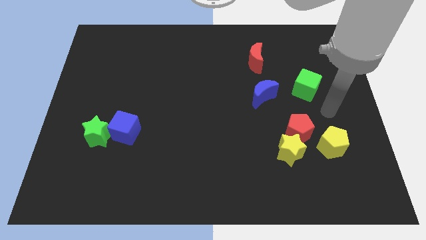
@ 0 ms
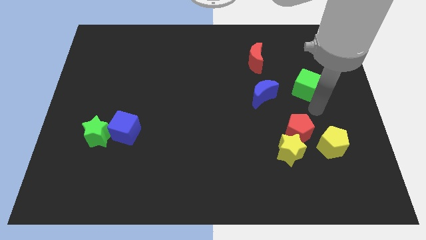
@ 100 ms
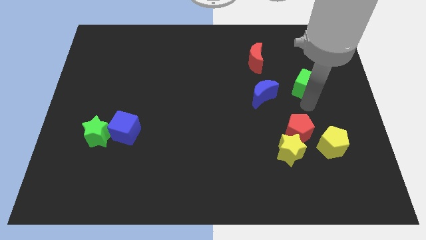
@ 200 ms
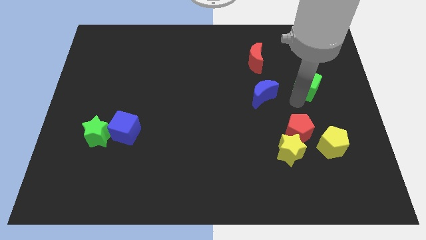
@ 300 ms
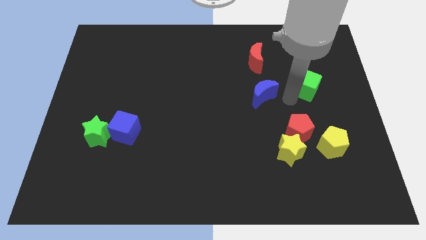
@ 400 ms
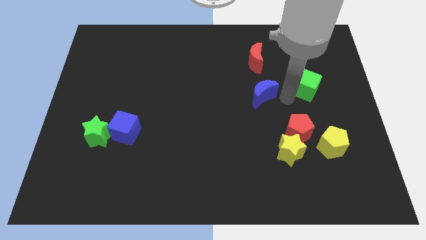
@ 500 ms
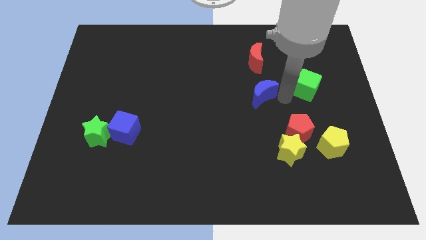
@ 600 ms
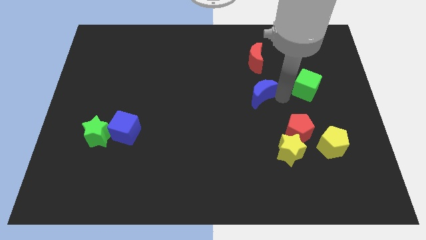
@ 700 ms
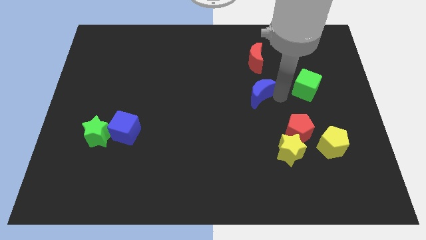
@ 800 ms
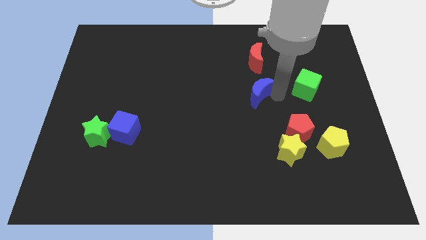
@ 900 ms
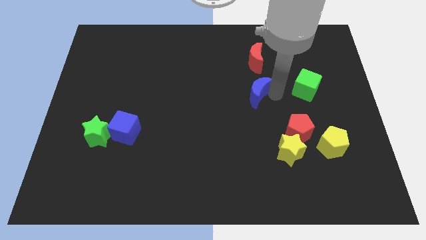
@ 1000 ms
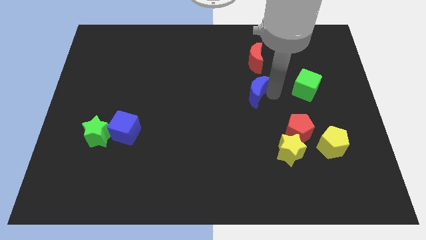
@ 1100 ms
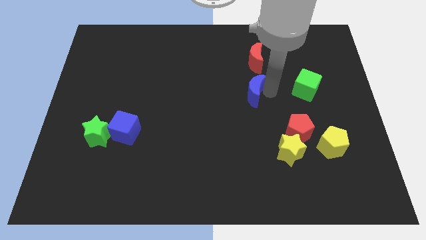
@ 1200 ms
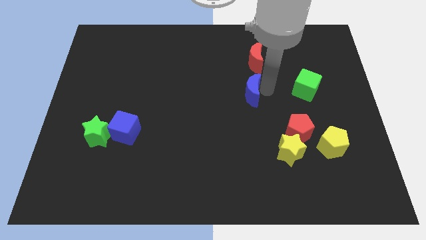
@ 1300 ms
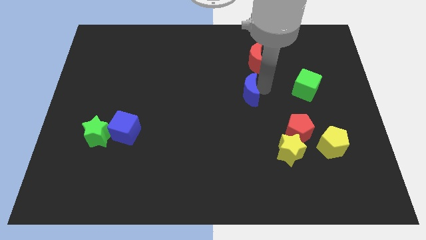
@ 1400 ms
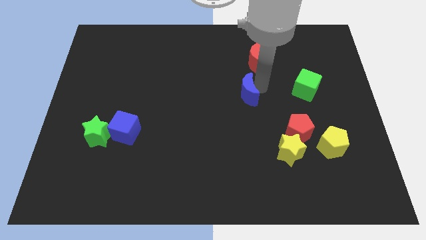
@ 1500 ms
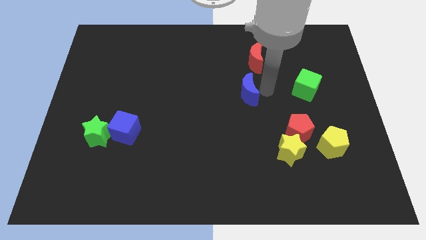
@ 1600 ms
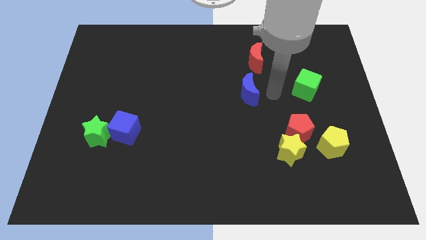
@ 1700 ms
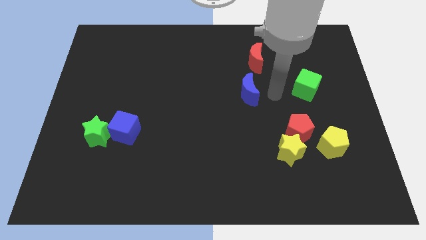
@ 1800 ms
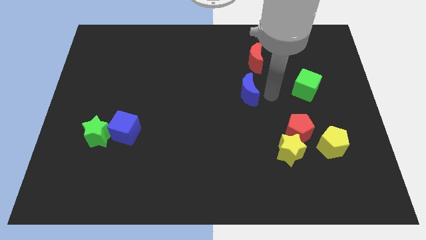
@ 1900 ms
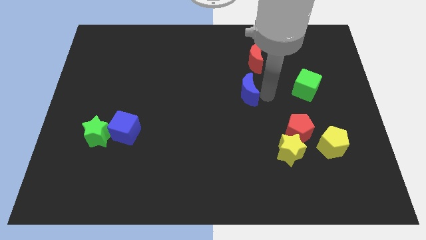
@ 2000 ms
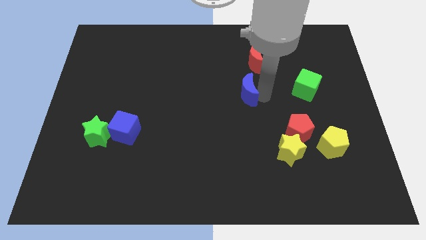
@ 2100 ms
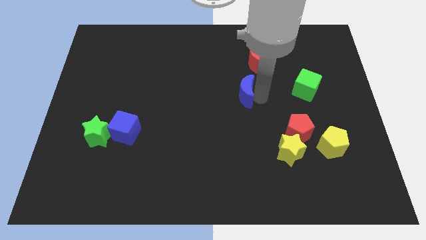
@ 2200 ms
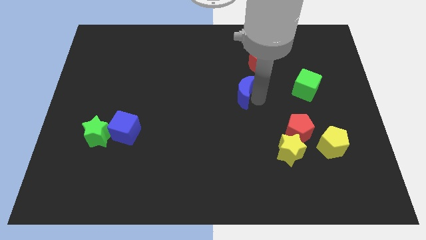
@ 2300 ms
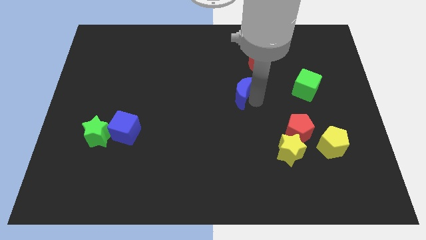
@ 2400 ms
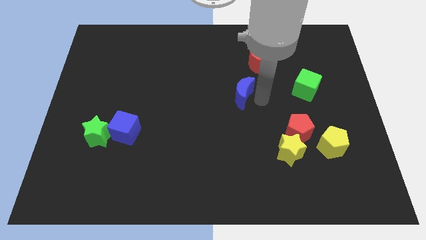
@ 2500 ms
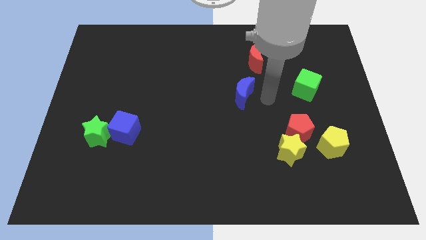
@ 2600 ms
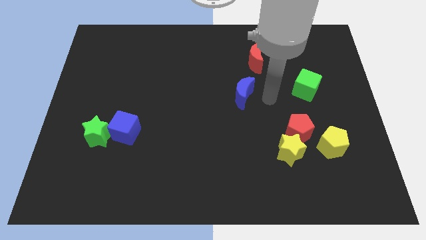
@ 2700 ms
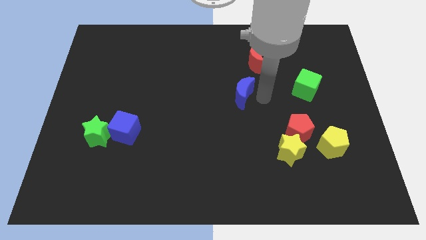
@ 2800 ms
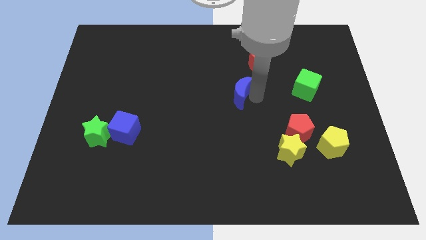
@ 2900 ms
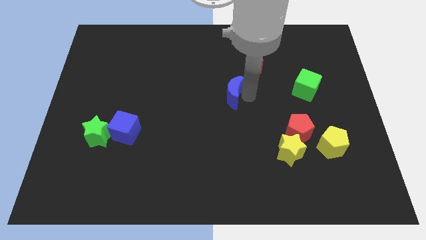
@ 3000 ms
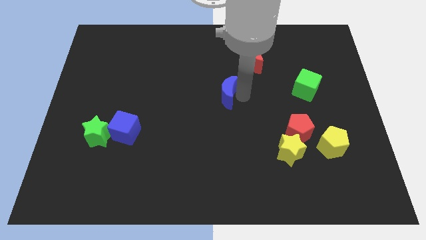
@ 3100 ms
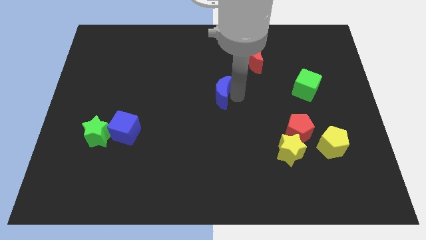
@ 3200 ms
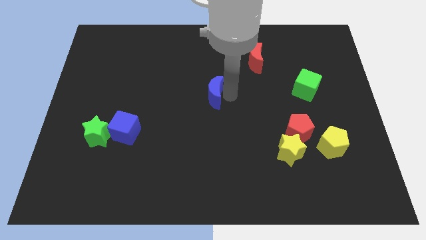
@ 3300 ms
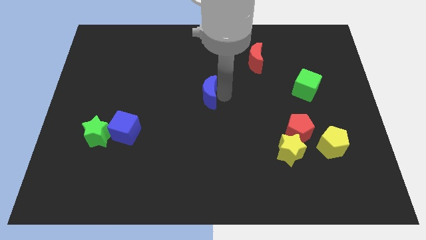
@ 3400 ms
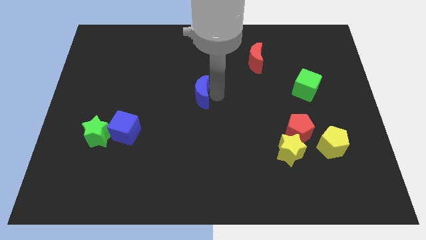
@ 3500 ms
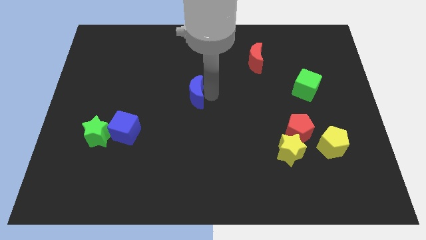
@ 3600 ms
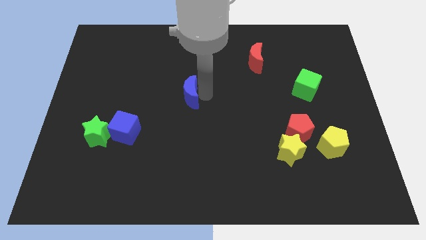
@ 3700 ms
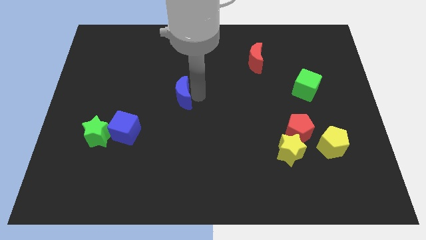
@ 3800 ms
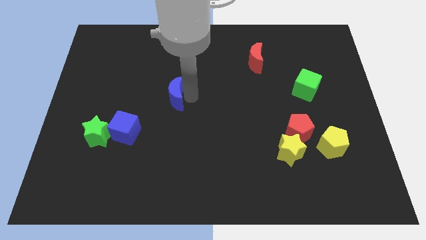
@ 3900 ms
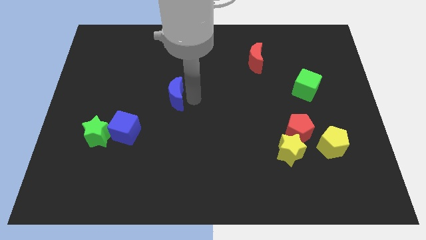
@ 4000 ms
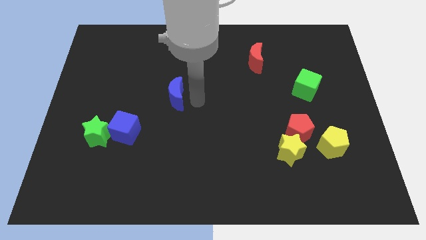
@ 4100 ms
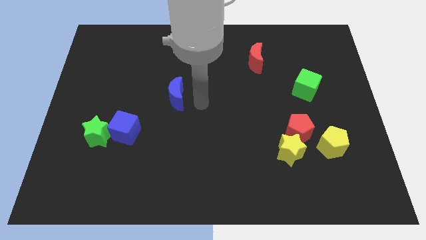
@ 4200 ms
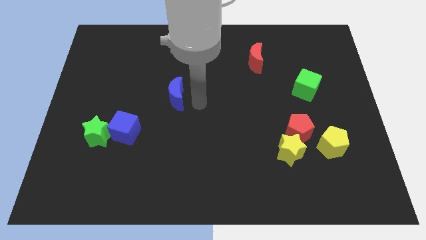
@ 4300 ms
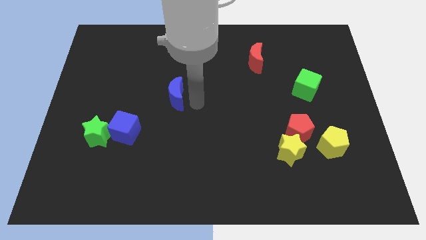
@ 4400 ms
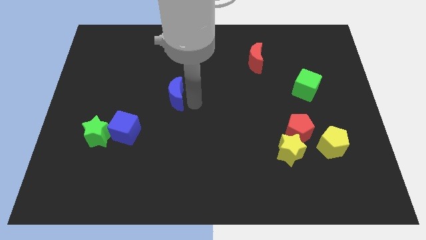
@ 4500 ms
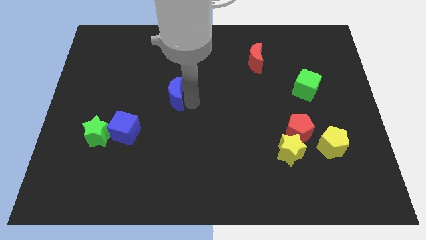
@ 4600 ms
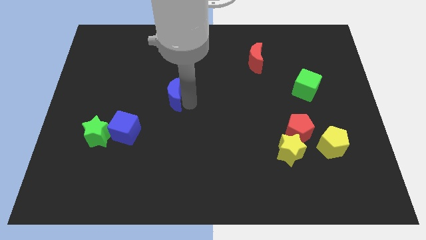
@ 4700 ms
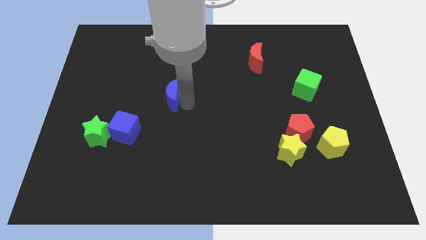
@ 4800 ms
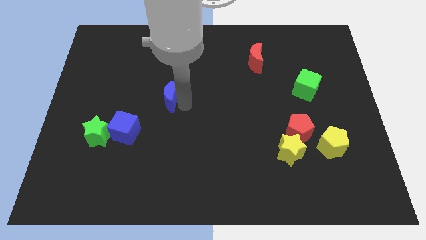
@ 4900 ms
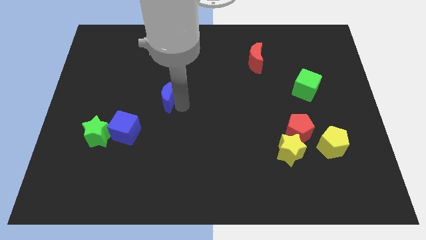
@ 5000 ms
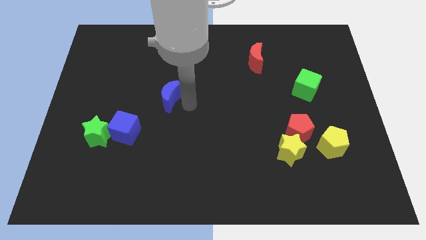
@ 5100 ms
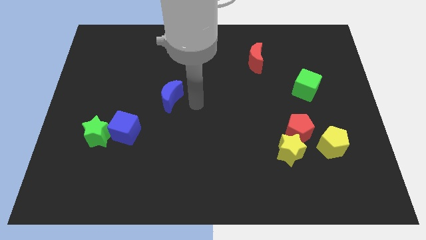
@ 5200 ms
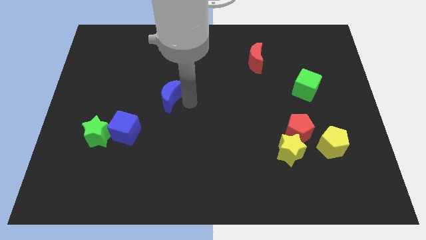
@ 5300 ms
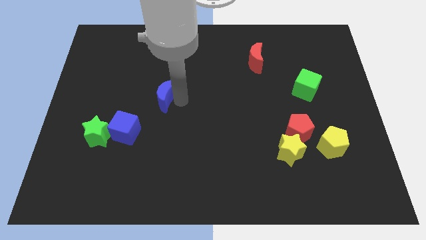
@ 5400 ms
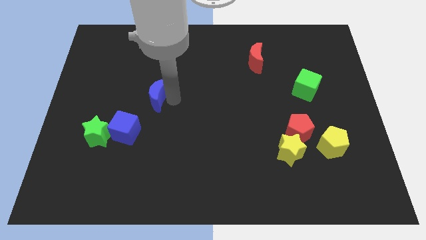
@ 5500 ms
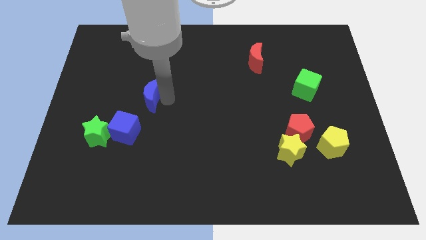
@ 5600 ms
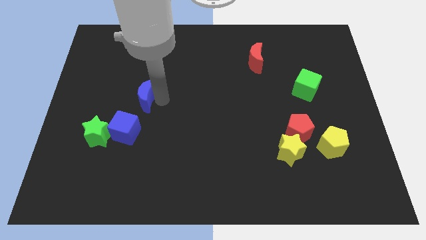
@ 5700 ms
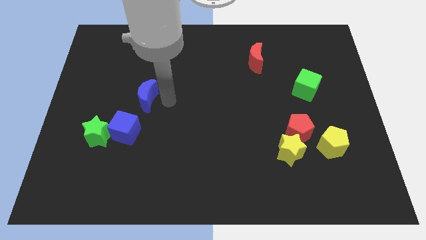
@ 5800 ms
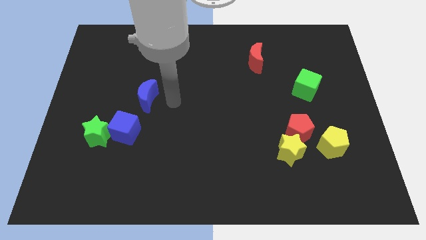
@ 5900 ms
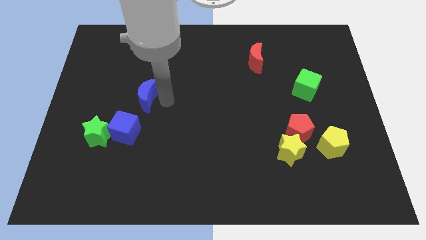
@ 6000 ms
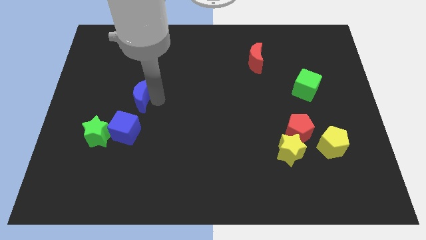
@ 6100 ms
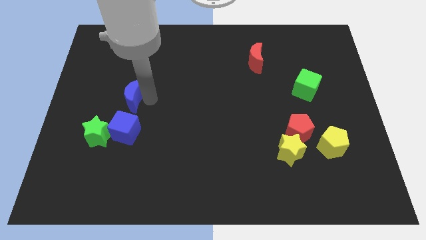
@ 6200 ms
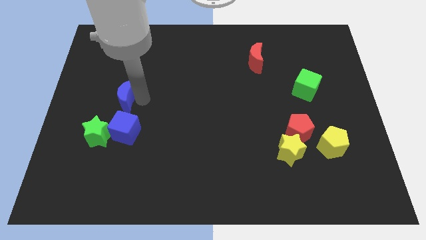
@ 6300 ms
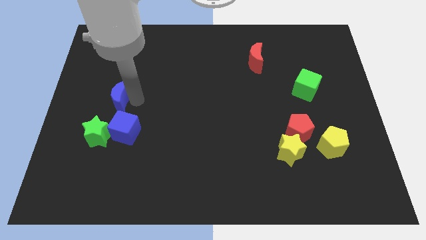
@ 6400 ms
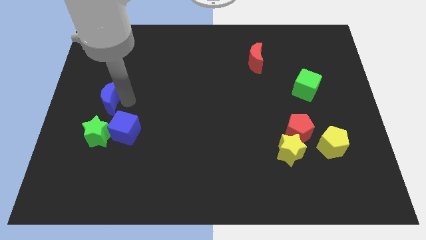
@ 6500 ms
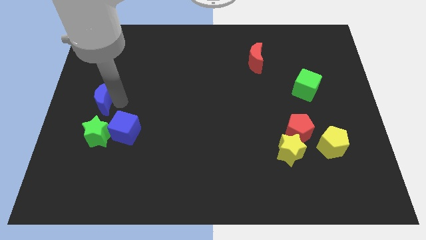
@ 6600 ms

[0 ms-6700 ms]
slide the blue moon to the left side of the board

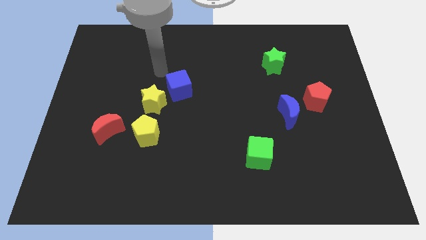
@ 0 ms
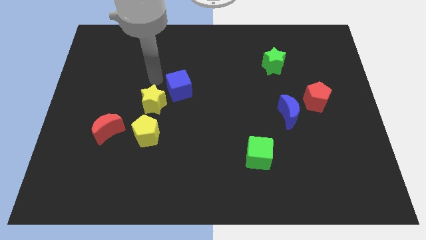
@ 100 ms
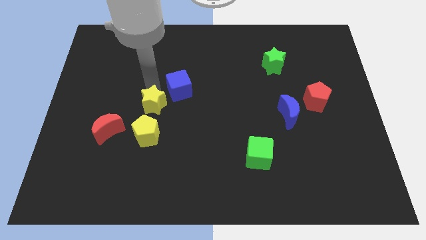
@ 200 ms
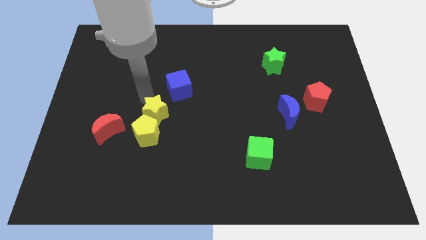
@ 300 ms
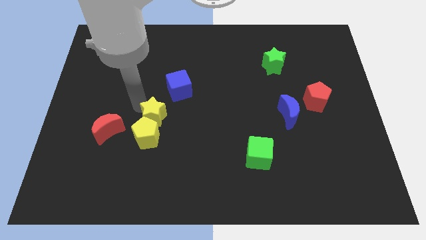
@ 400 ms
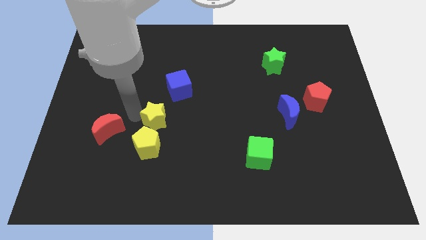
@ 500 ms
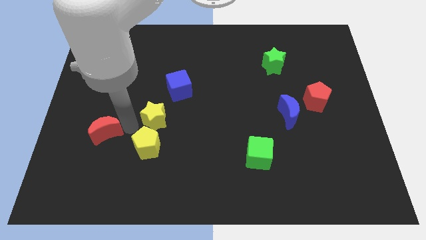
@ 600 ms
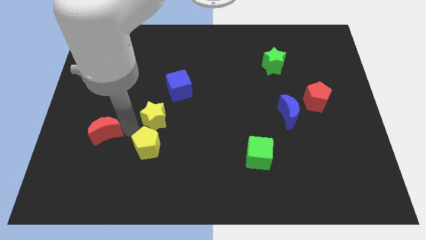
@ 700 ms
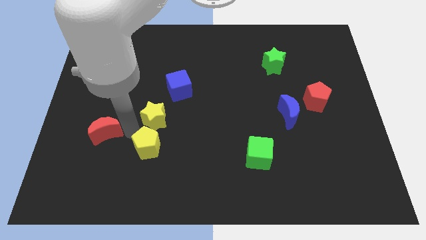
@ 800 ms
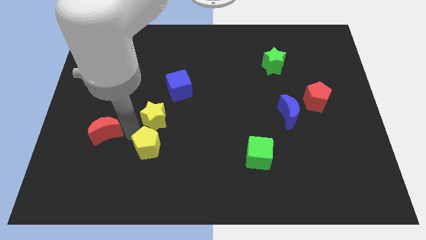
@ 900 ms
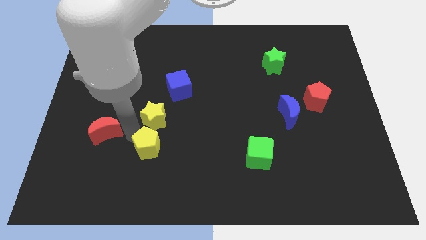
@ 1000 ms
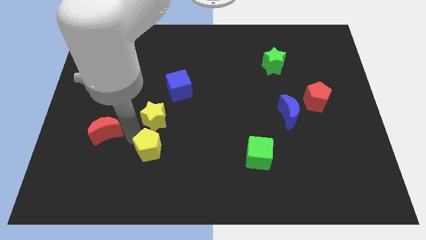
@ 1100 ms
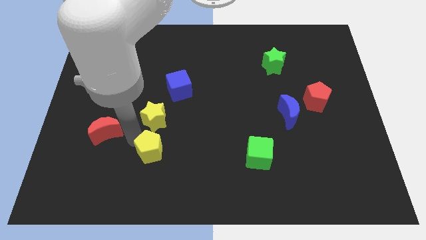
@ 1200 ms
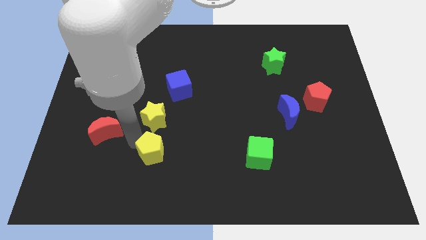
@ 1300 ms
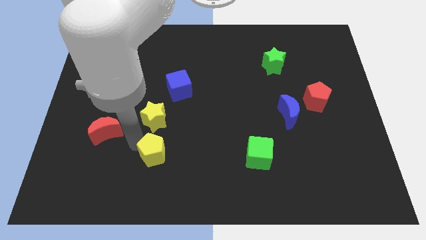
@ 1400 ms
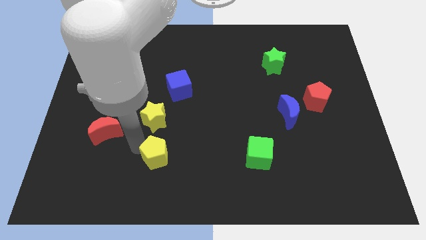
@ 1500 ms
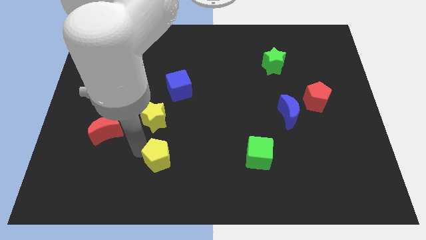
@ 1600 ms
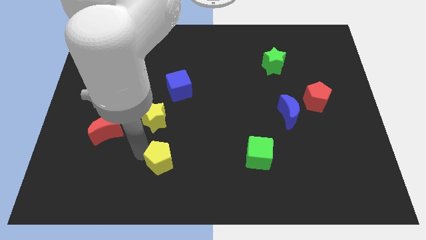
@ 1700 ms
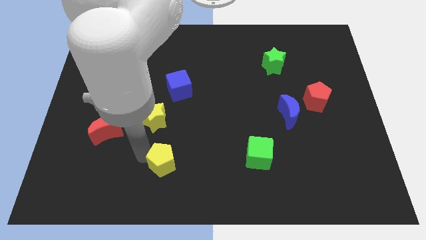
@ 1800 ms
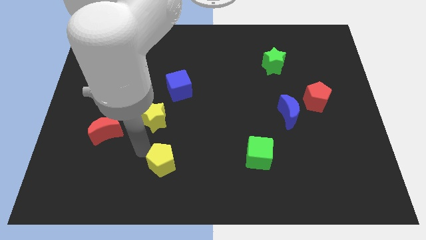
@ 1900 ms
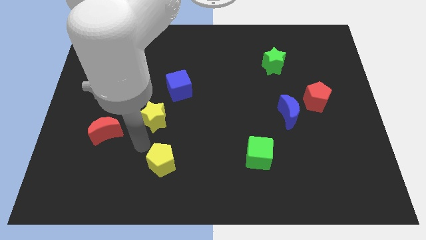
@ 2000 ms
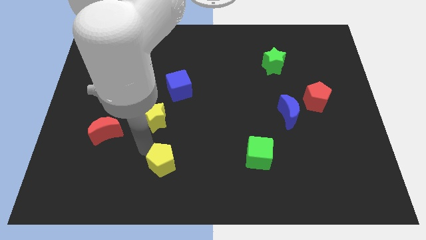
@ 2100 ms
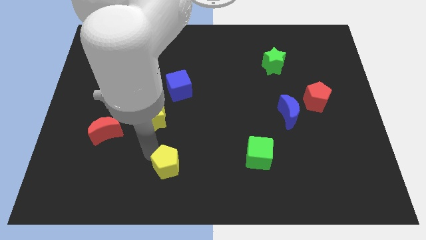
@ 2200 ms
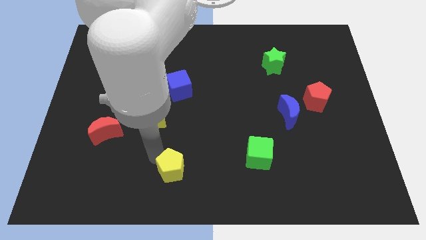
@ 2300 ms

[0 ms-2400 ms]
put the yellow pentagon to the bottom side
